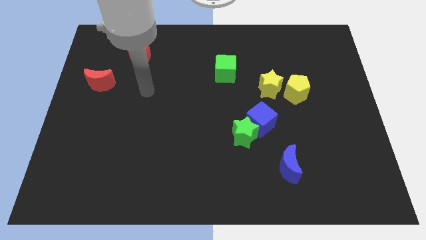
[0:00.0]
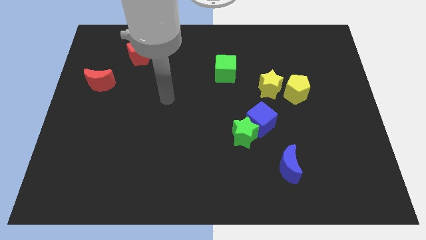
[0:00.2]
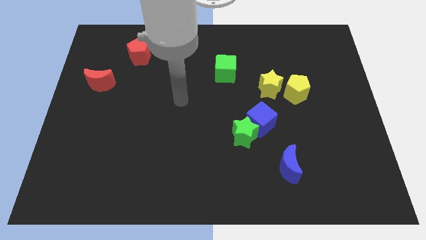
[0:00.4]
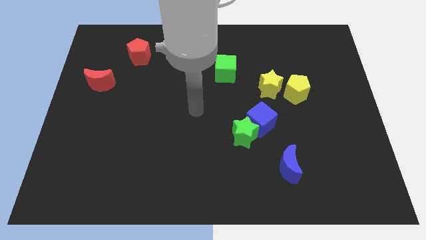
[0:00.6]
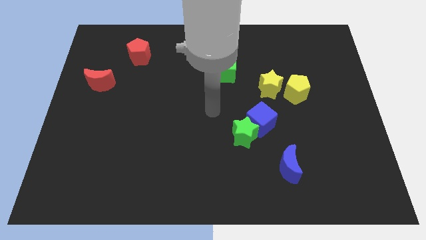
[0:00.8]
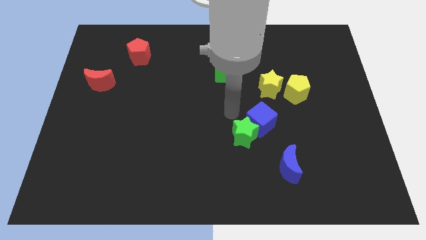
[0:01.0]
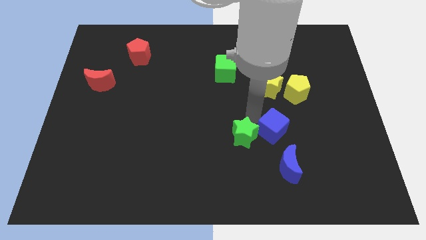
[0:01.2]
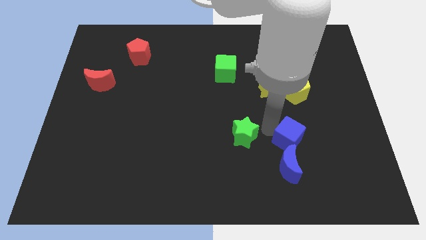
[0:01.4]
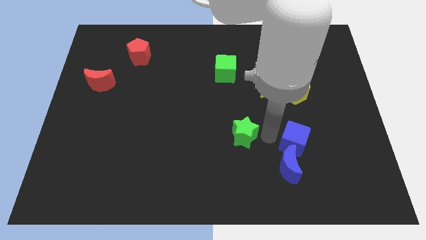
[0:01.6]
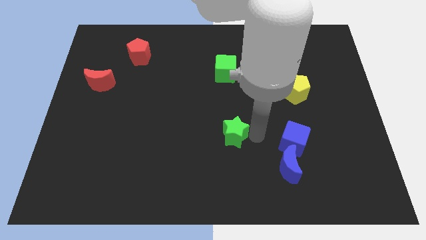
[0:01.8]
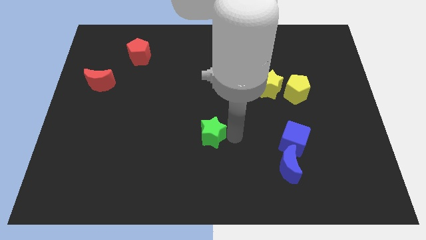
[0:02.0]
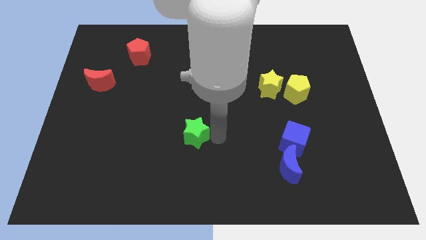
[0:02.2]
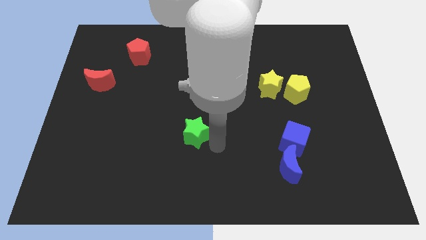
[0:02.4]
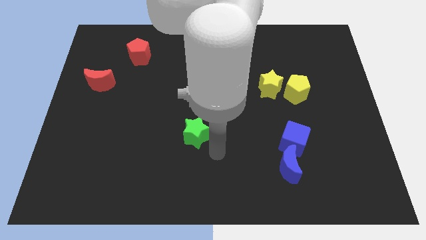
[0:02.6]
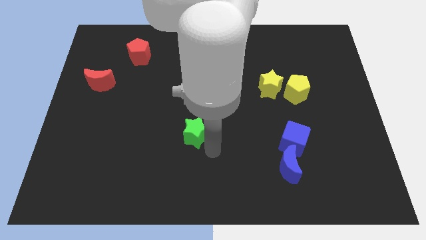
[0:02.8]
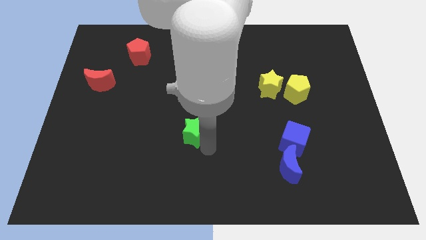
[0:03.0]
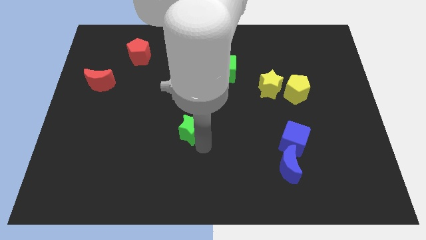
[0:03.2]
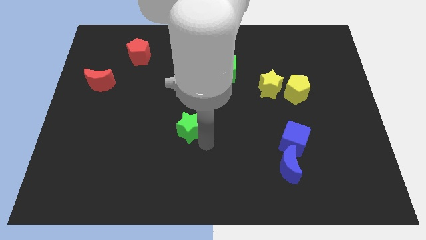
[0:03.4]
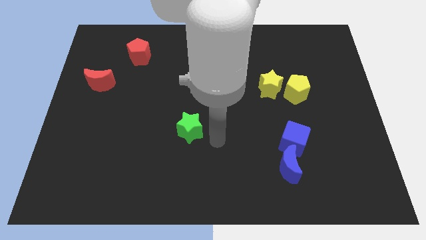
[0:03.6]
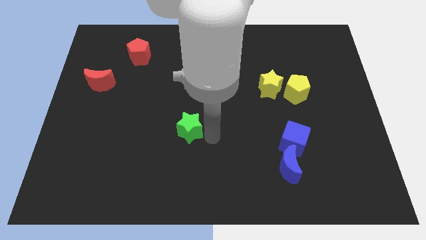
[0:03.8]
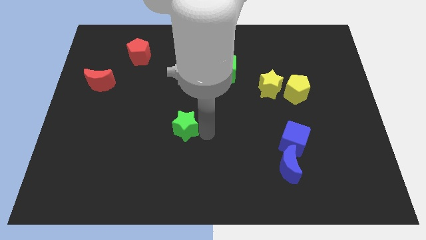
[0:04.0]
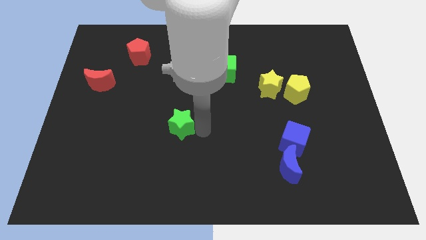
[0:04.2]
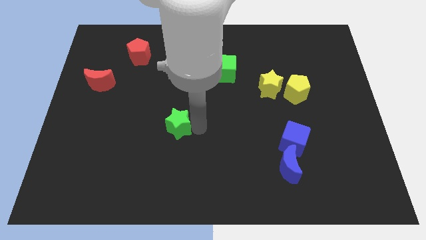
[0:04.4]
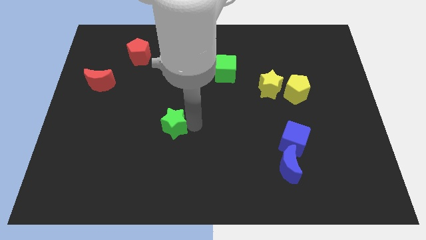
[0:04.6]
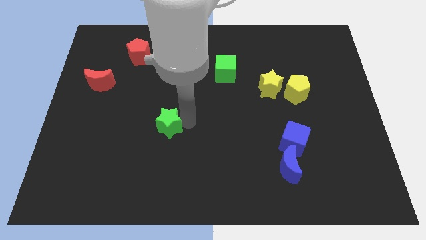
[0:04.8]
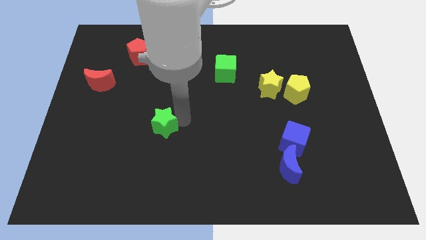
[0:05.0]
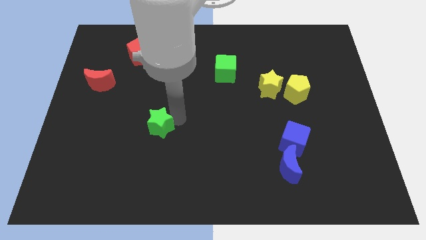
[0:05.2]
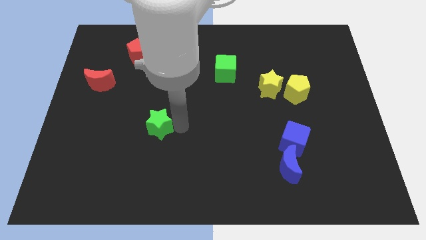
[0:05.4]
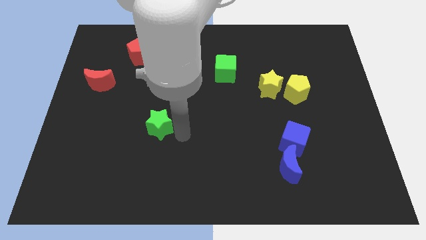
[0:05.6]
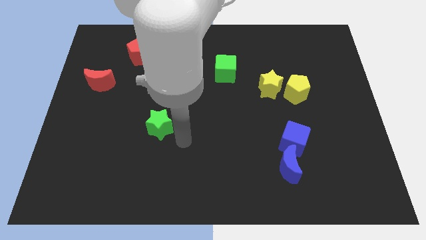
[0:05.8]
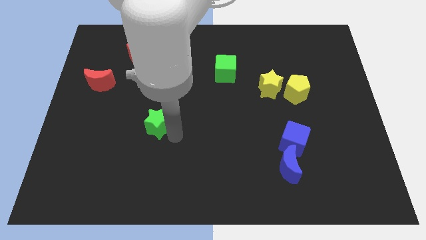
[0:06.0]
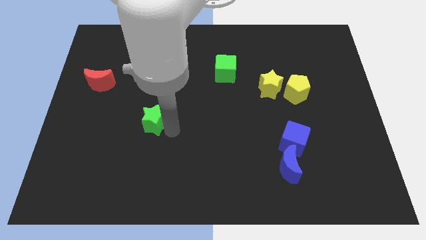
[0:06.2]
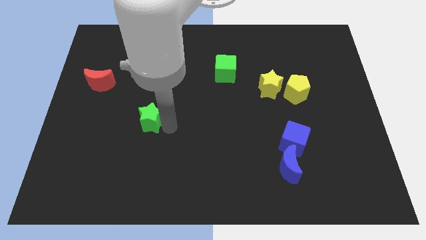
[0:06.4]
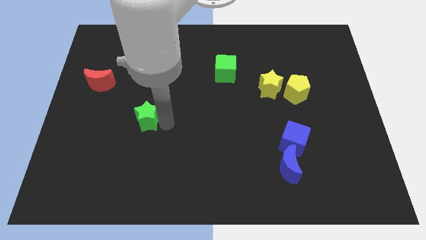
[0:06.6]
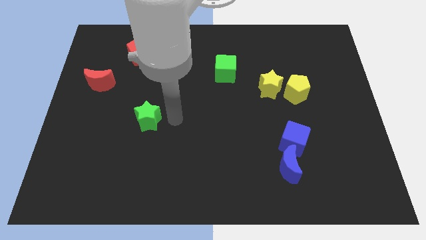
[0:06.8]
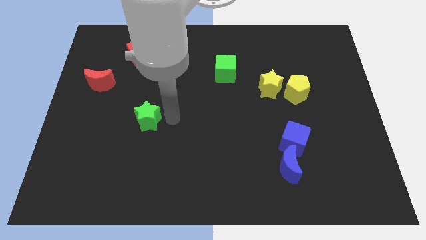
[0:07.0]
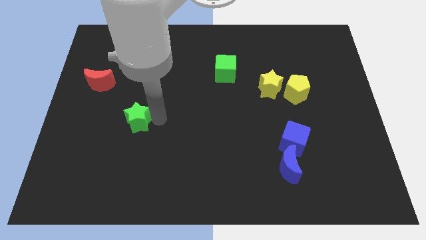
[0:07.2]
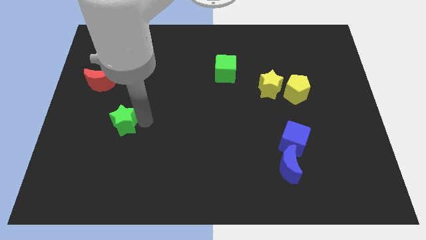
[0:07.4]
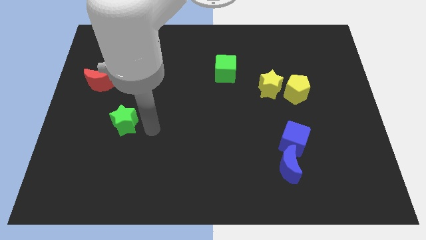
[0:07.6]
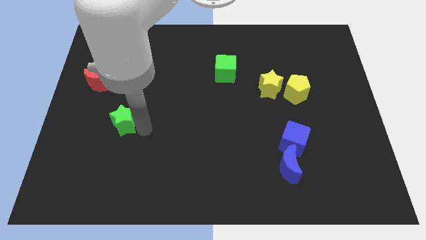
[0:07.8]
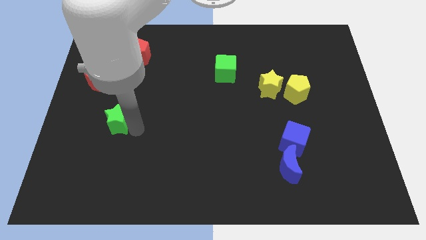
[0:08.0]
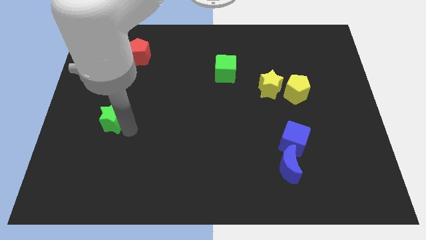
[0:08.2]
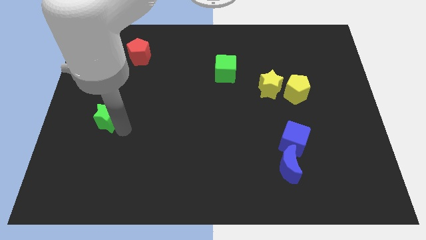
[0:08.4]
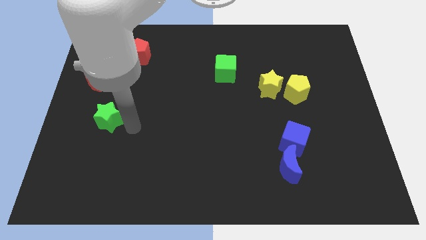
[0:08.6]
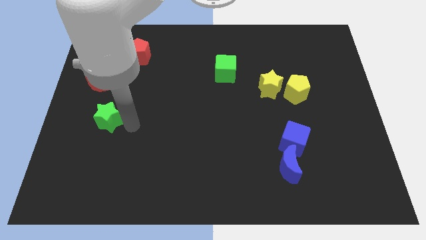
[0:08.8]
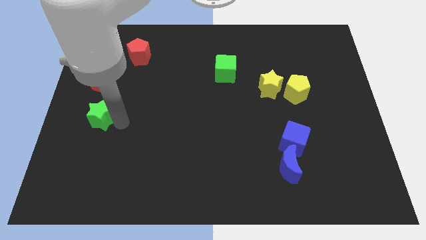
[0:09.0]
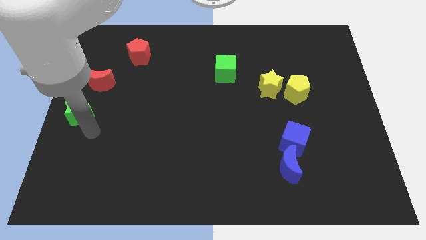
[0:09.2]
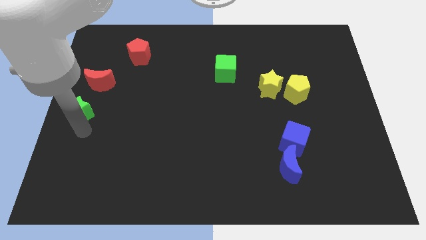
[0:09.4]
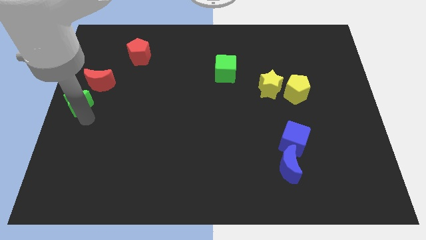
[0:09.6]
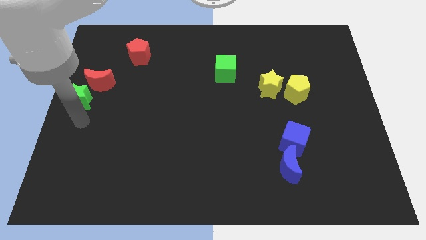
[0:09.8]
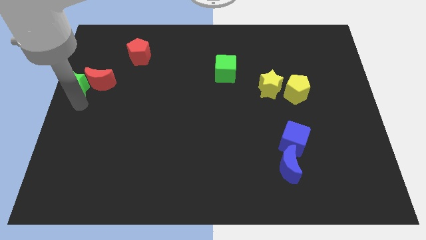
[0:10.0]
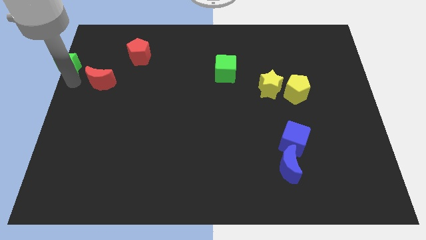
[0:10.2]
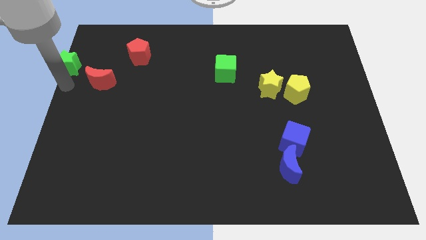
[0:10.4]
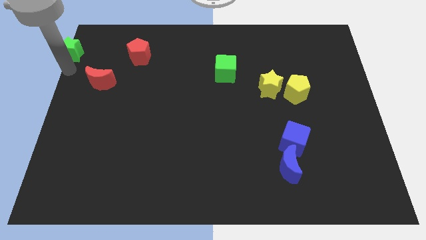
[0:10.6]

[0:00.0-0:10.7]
push the green star to the top left corner

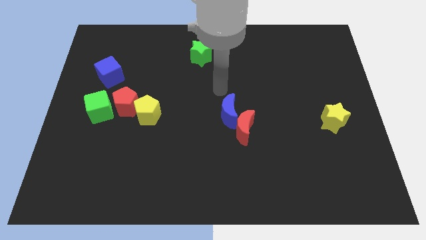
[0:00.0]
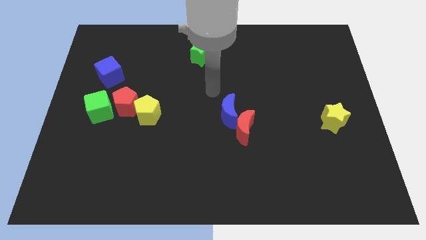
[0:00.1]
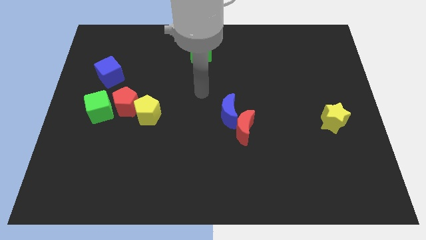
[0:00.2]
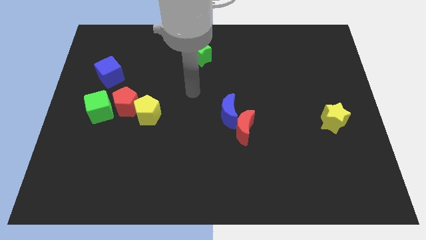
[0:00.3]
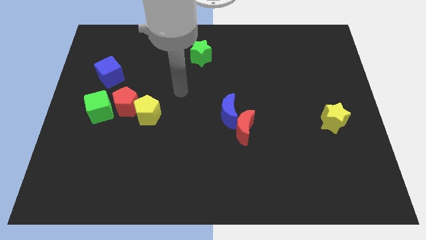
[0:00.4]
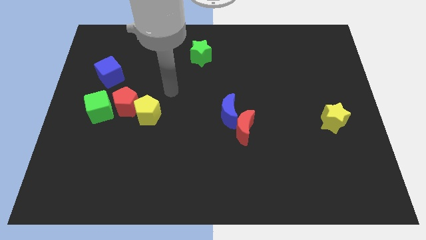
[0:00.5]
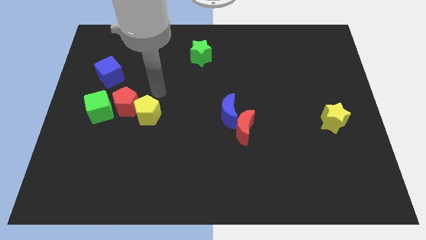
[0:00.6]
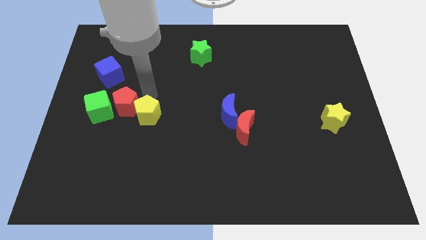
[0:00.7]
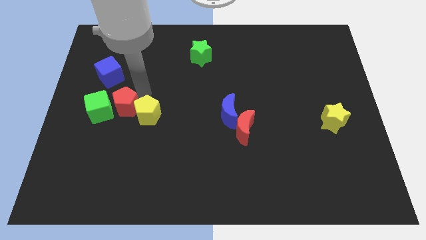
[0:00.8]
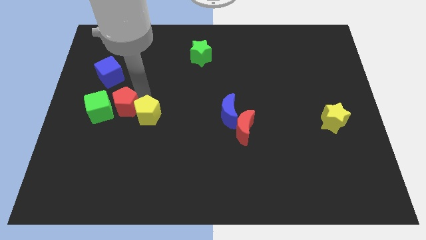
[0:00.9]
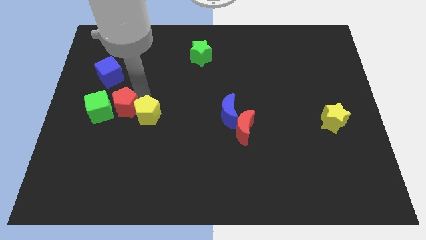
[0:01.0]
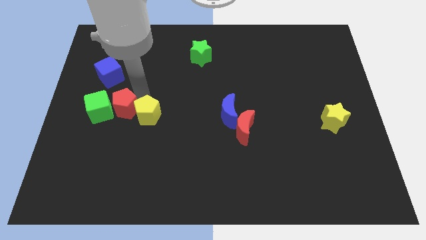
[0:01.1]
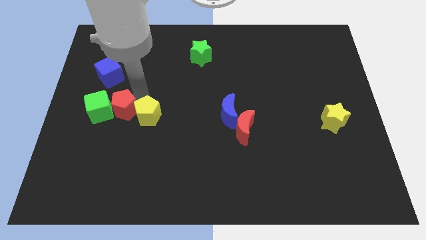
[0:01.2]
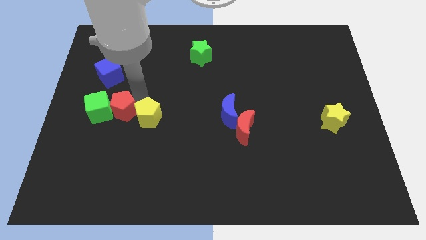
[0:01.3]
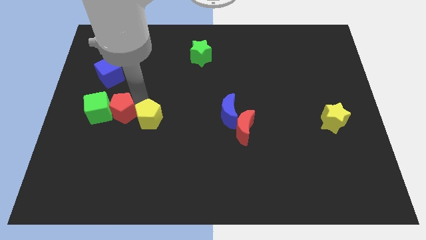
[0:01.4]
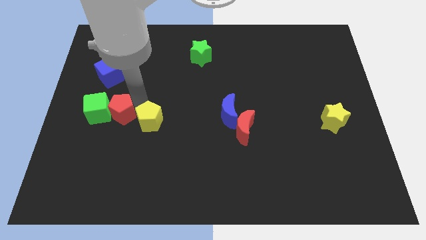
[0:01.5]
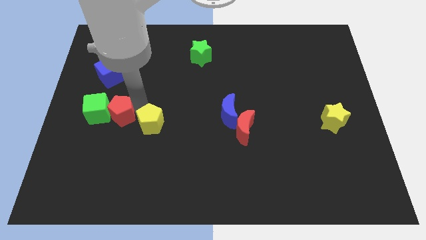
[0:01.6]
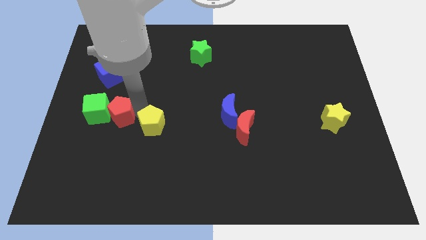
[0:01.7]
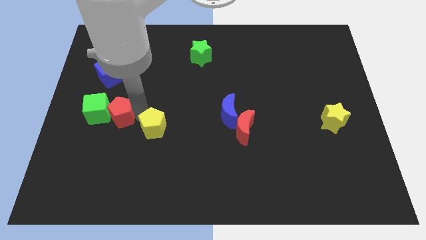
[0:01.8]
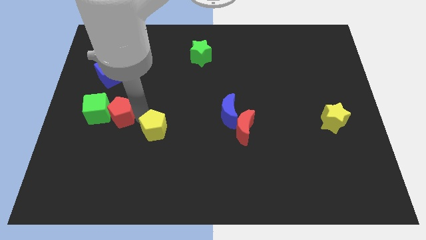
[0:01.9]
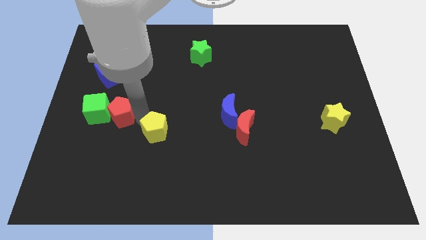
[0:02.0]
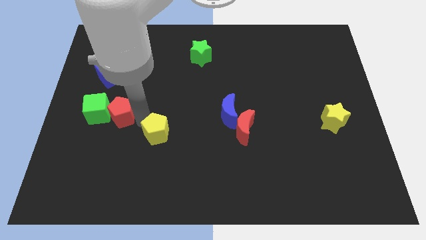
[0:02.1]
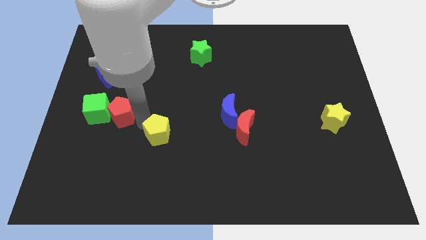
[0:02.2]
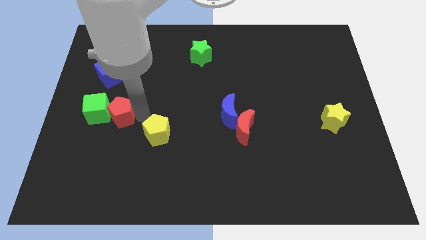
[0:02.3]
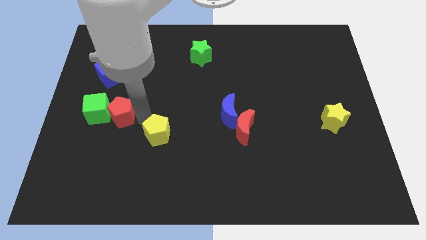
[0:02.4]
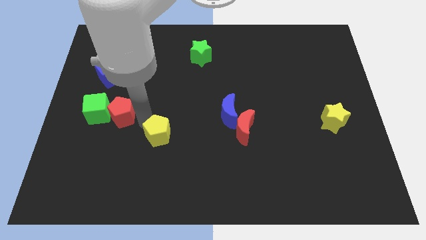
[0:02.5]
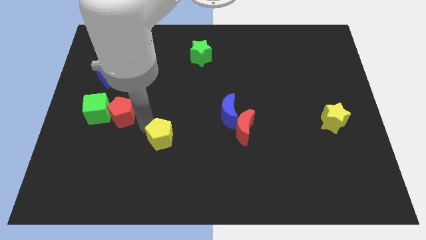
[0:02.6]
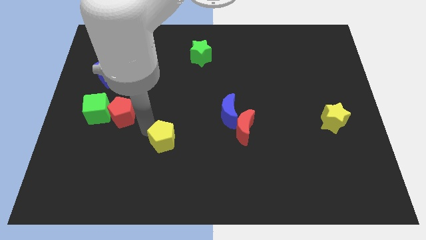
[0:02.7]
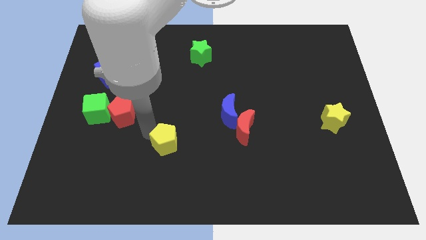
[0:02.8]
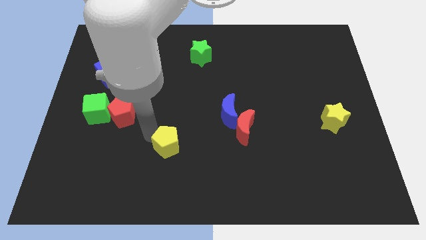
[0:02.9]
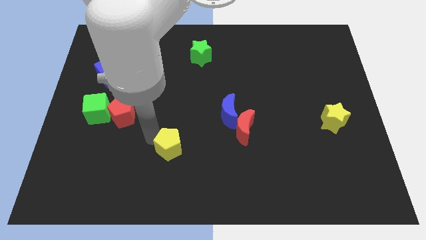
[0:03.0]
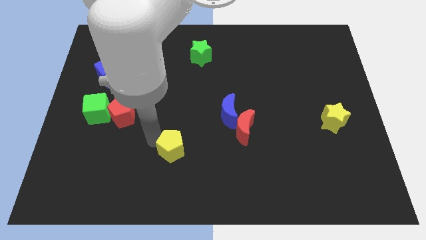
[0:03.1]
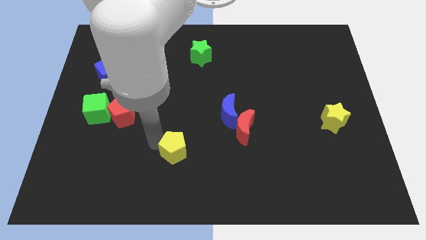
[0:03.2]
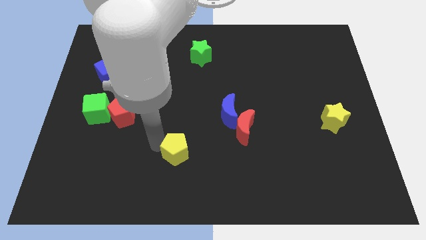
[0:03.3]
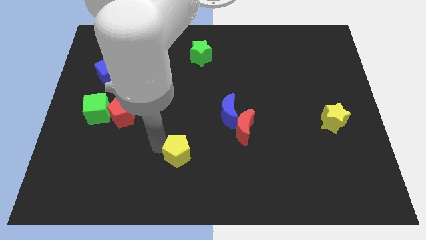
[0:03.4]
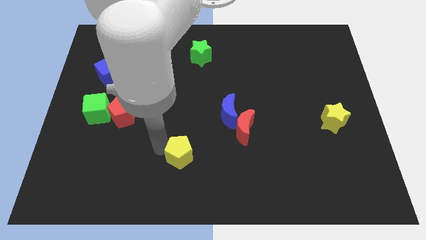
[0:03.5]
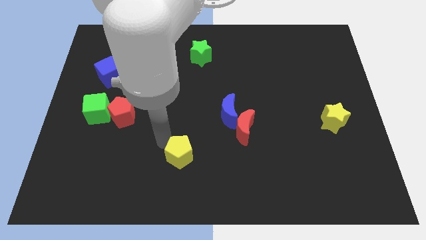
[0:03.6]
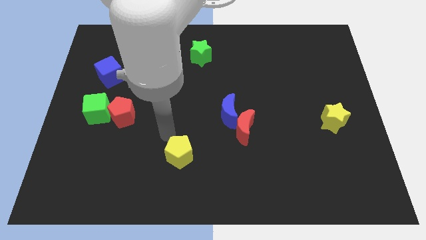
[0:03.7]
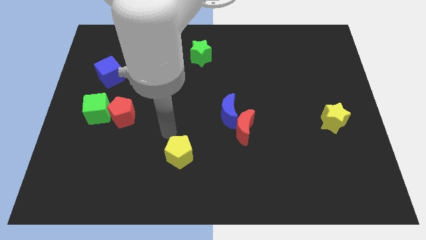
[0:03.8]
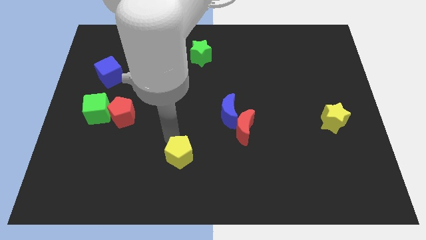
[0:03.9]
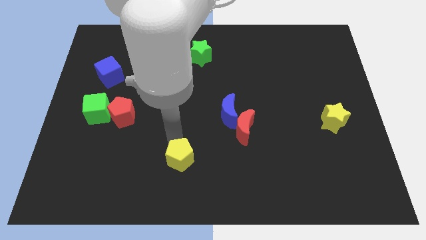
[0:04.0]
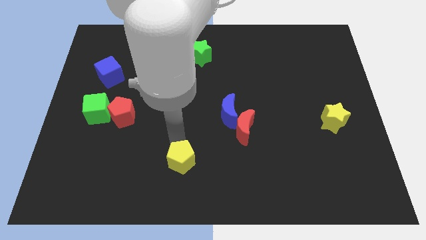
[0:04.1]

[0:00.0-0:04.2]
move the yellow pentagon to the bottom side
